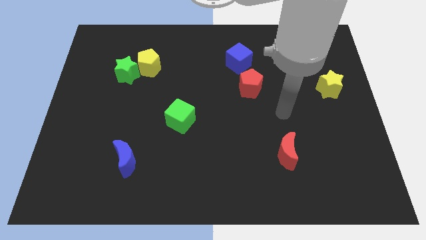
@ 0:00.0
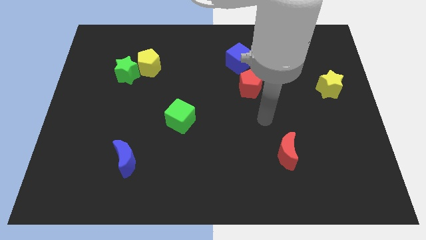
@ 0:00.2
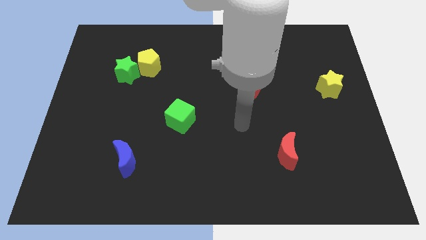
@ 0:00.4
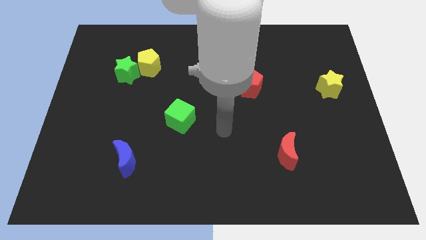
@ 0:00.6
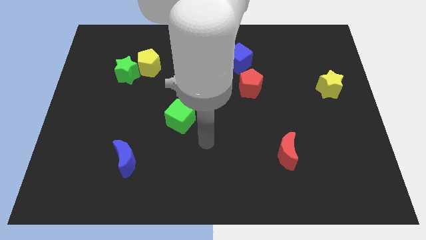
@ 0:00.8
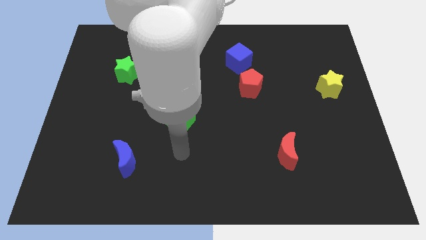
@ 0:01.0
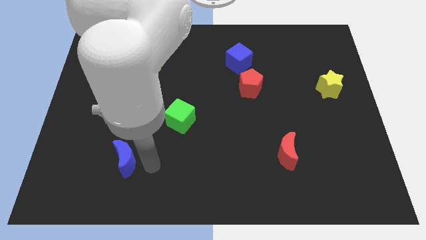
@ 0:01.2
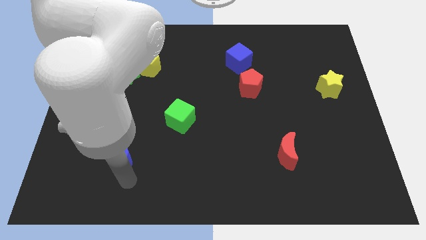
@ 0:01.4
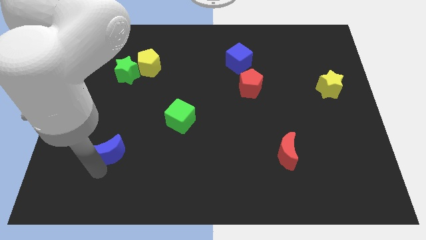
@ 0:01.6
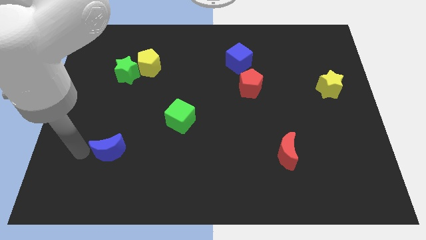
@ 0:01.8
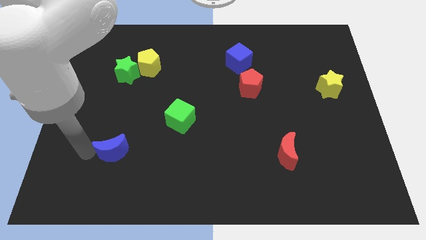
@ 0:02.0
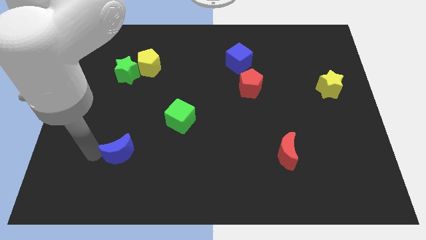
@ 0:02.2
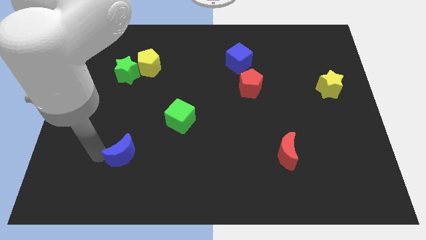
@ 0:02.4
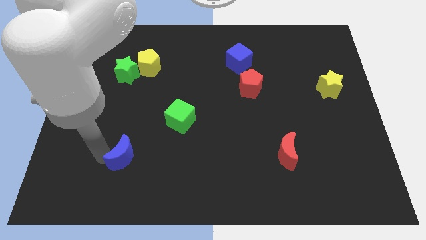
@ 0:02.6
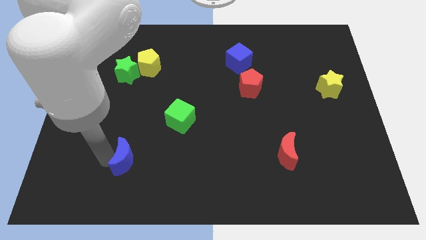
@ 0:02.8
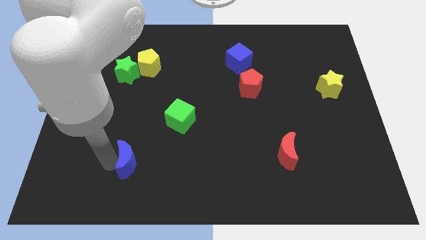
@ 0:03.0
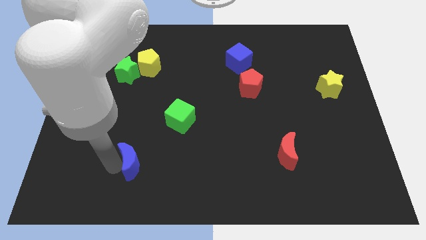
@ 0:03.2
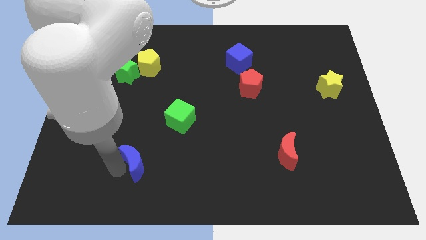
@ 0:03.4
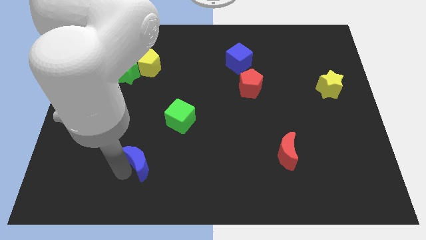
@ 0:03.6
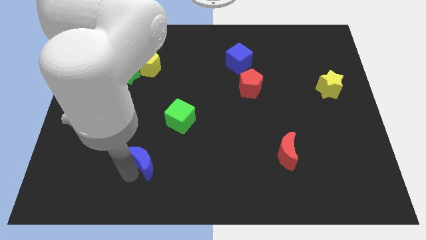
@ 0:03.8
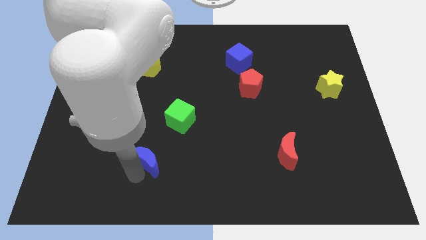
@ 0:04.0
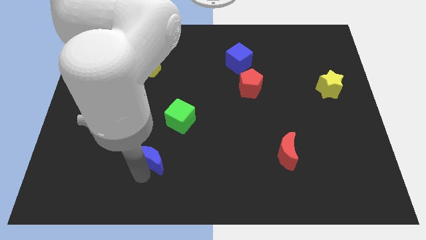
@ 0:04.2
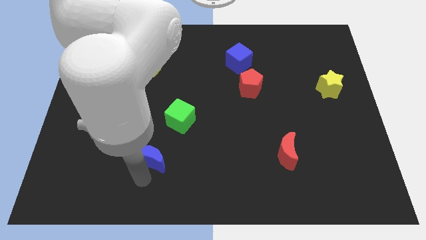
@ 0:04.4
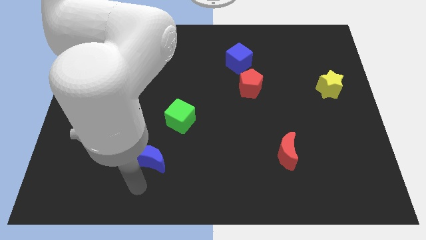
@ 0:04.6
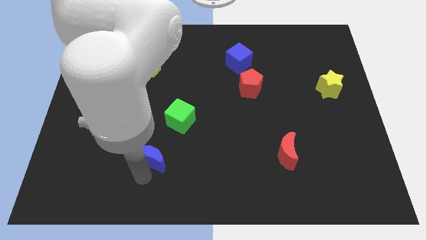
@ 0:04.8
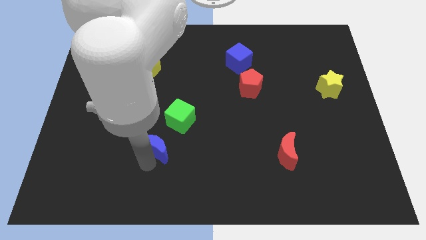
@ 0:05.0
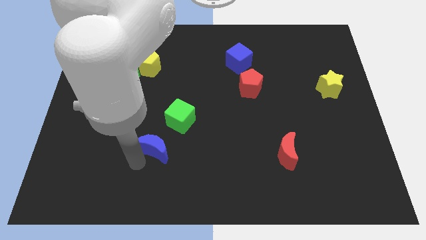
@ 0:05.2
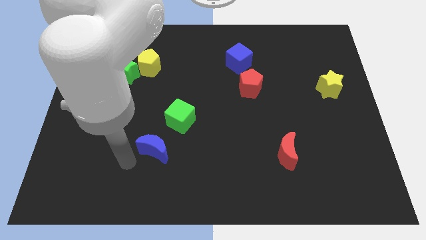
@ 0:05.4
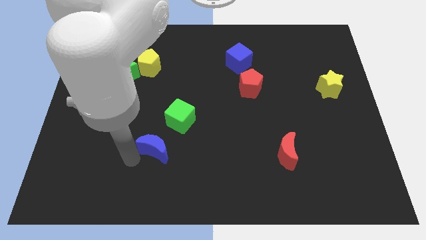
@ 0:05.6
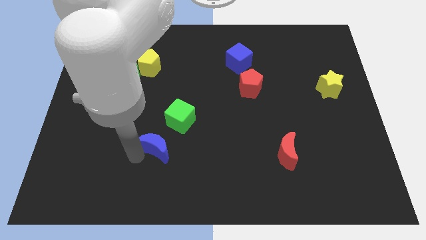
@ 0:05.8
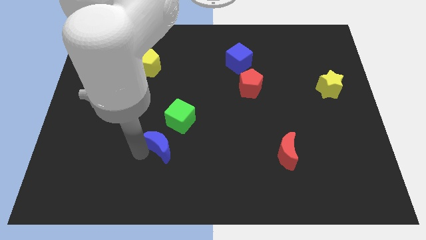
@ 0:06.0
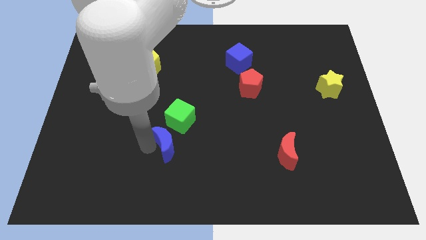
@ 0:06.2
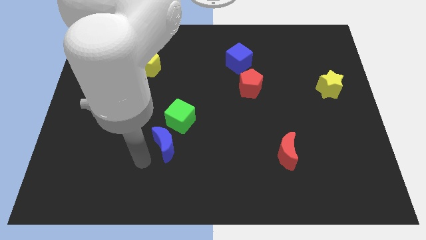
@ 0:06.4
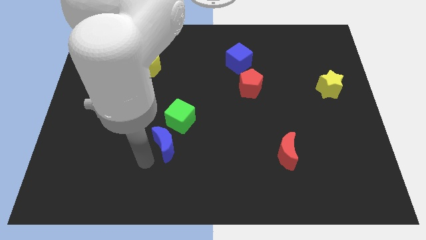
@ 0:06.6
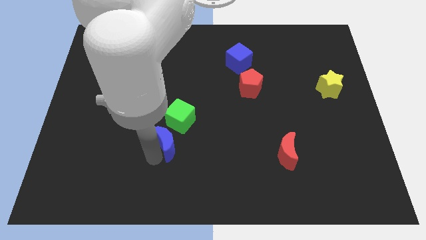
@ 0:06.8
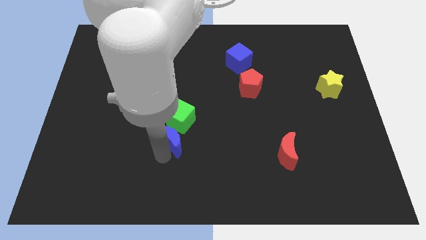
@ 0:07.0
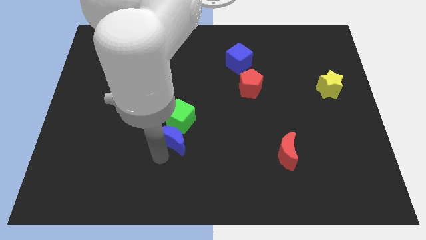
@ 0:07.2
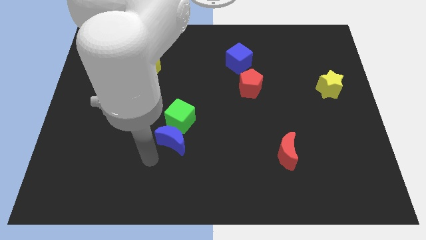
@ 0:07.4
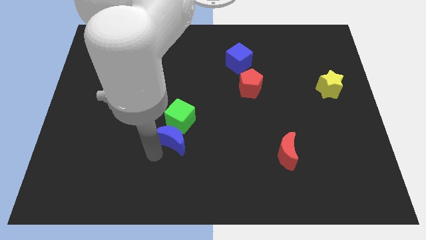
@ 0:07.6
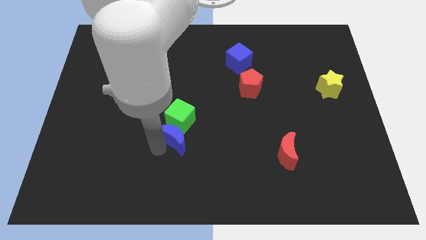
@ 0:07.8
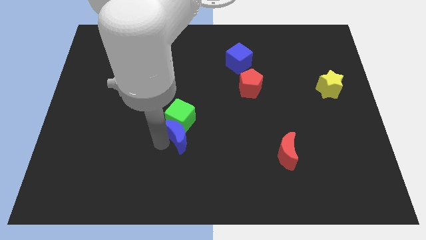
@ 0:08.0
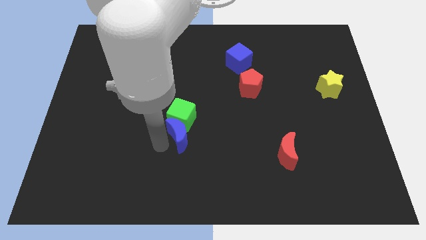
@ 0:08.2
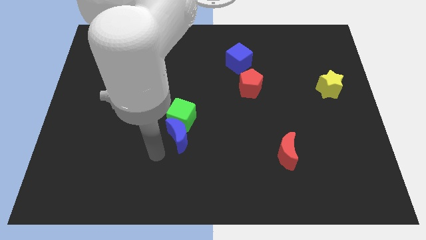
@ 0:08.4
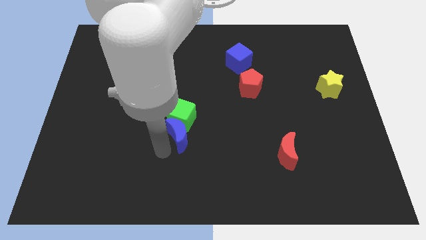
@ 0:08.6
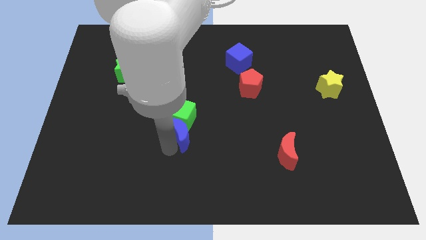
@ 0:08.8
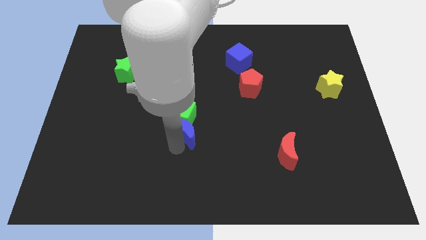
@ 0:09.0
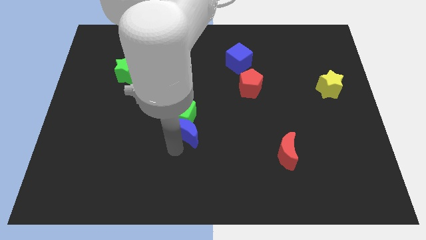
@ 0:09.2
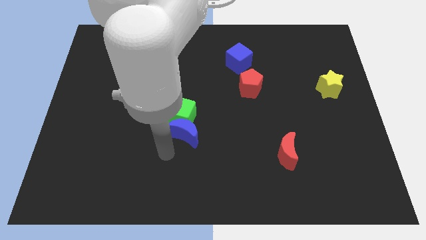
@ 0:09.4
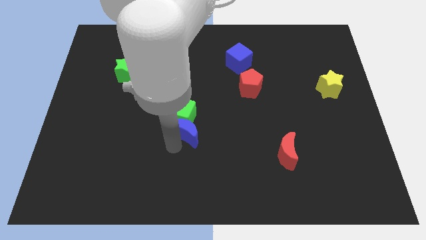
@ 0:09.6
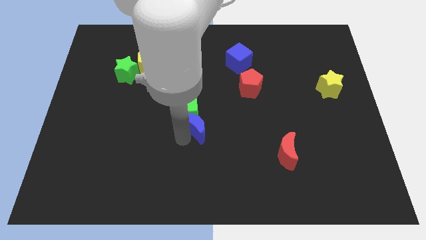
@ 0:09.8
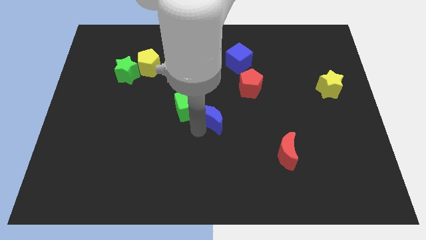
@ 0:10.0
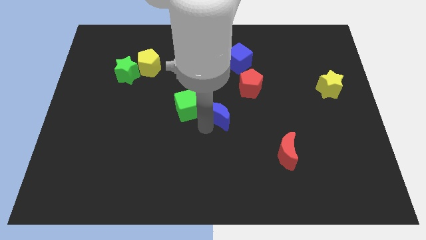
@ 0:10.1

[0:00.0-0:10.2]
move the blue moon upwards and to the right diagonally

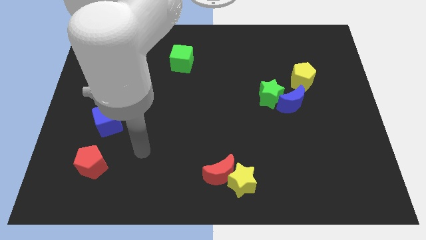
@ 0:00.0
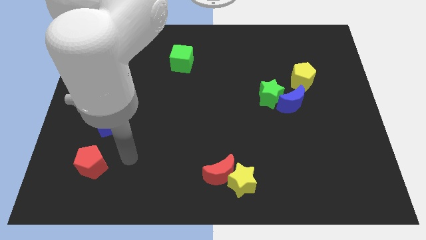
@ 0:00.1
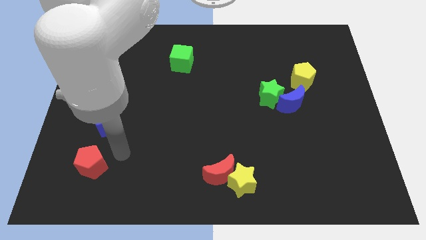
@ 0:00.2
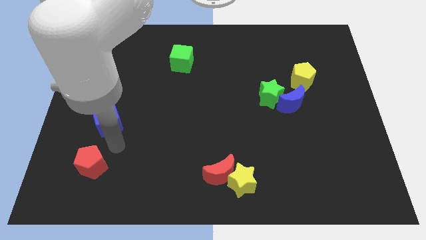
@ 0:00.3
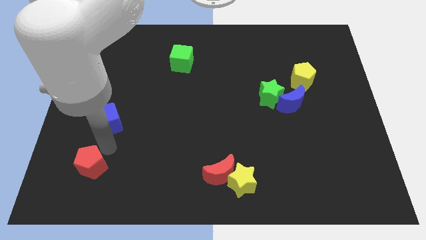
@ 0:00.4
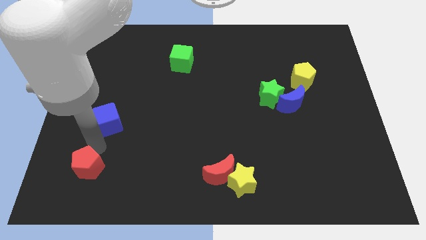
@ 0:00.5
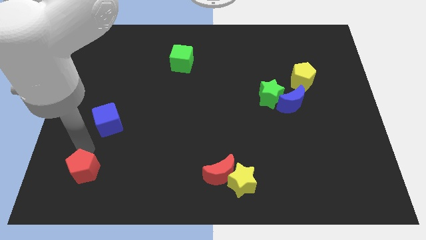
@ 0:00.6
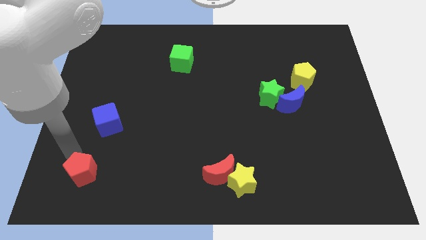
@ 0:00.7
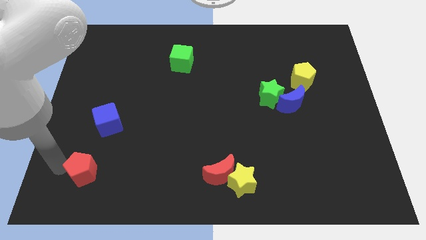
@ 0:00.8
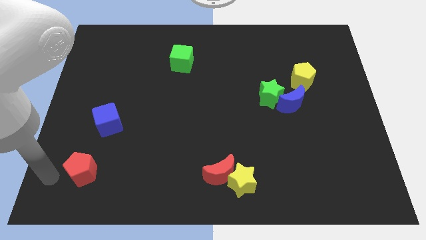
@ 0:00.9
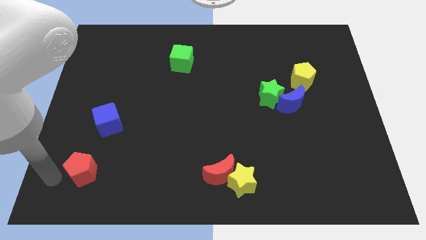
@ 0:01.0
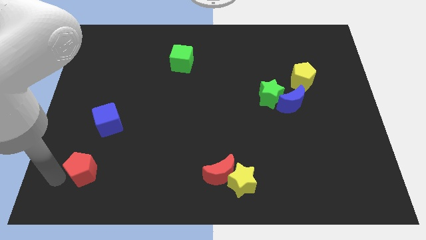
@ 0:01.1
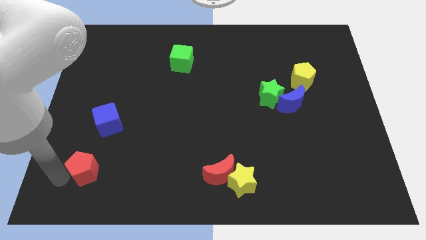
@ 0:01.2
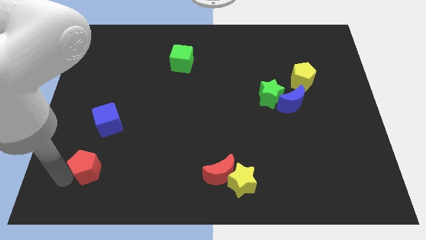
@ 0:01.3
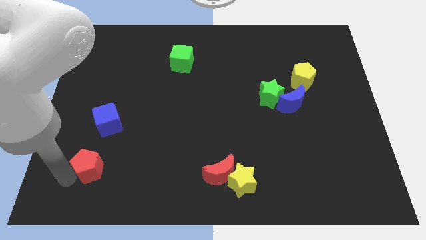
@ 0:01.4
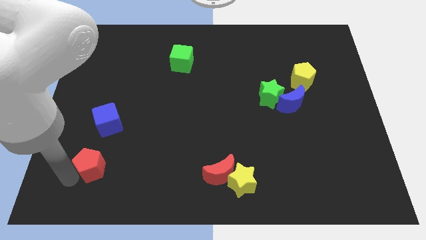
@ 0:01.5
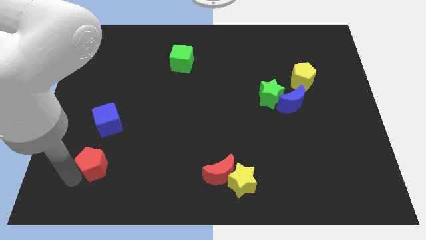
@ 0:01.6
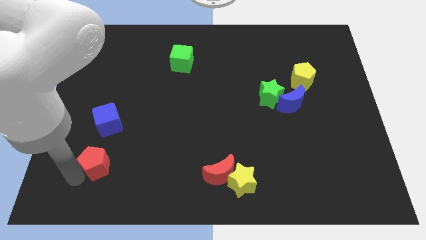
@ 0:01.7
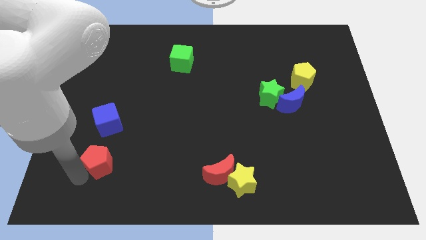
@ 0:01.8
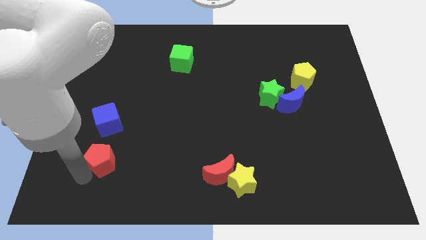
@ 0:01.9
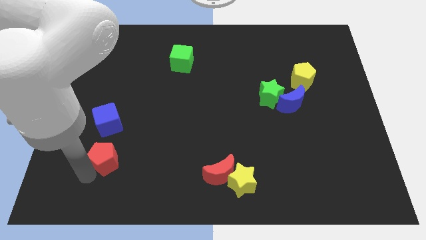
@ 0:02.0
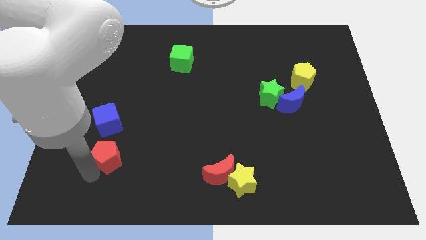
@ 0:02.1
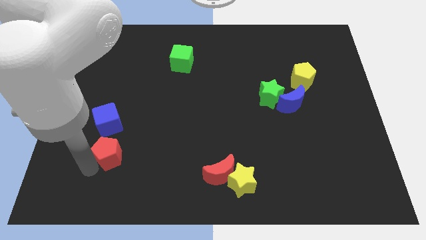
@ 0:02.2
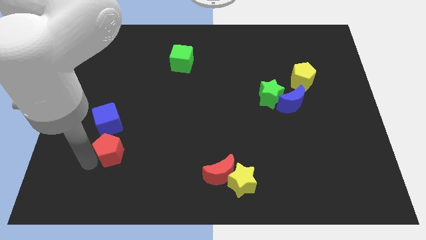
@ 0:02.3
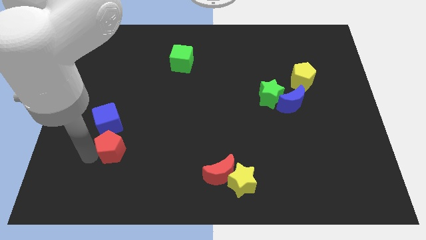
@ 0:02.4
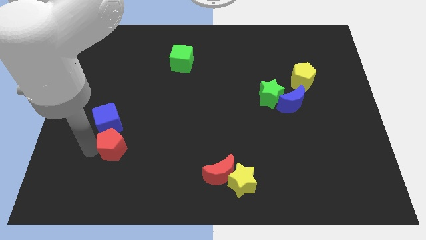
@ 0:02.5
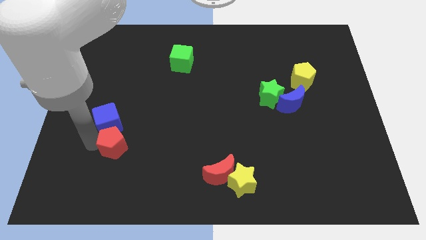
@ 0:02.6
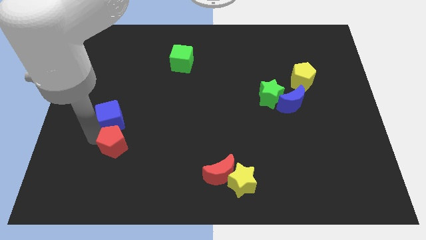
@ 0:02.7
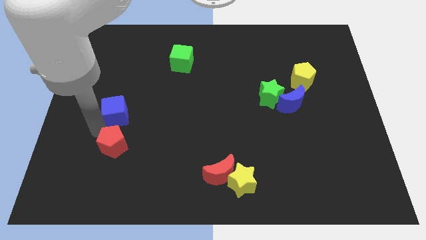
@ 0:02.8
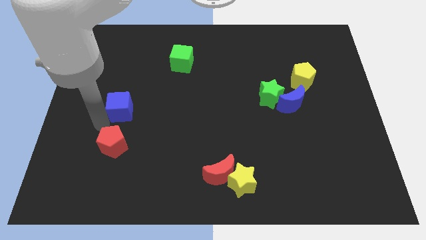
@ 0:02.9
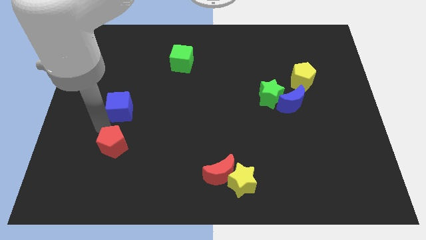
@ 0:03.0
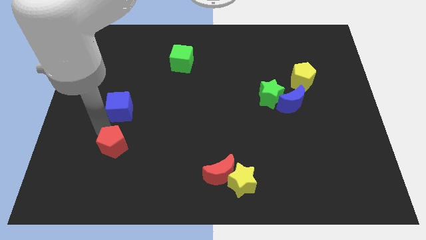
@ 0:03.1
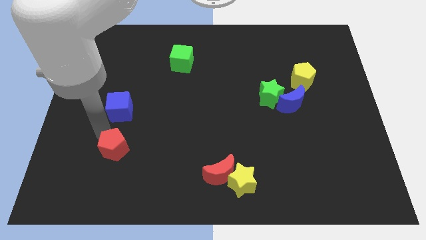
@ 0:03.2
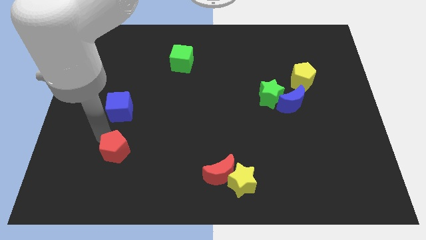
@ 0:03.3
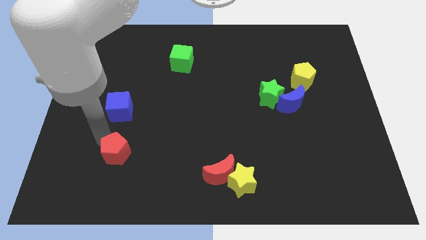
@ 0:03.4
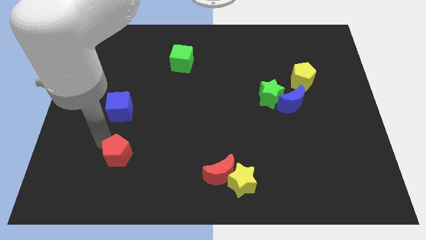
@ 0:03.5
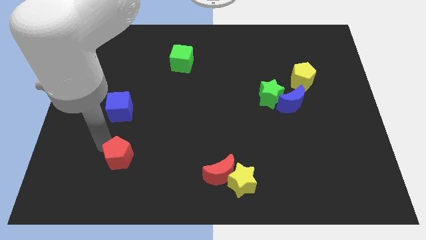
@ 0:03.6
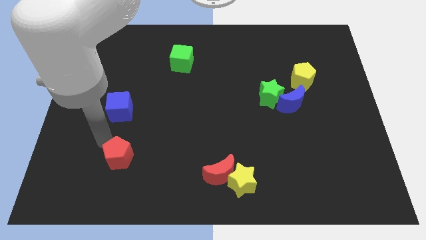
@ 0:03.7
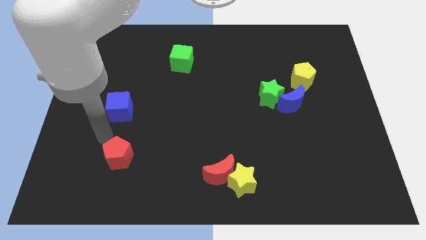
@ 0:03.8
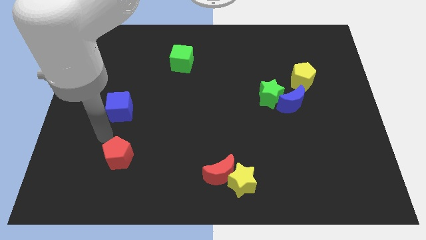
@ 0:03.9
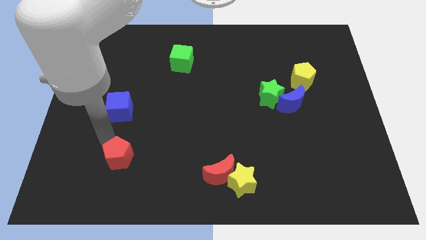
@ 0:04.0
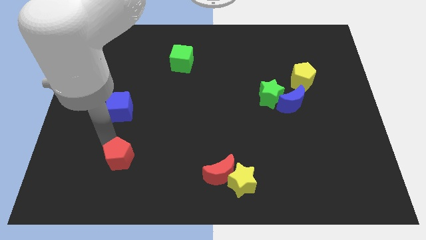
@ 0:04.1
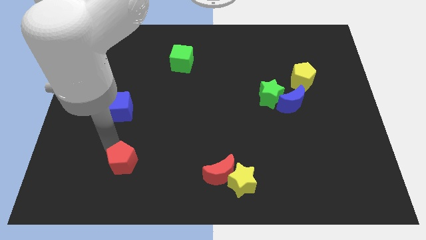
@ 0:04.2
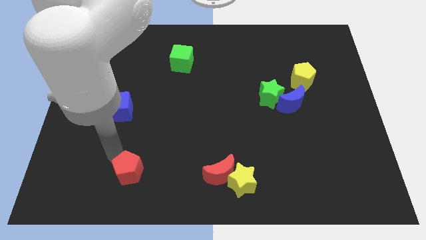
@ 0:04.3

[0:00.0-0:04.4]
move the red pentagon to the right somewhat
